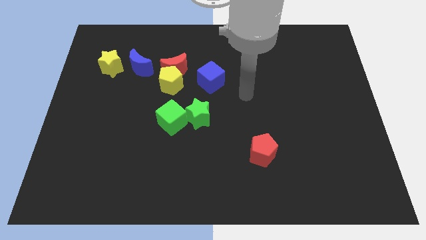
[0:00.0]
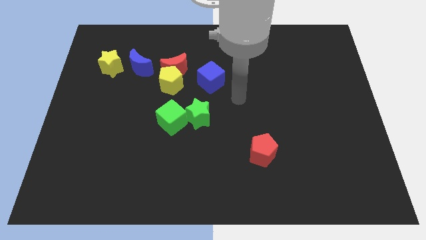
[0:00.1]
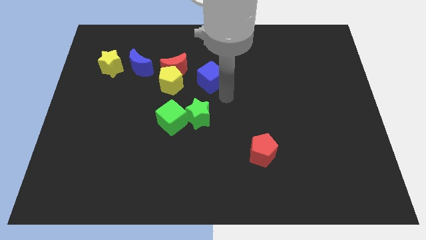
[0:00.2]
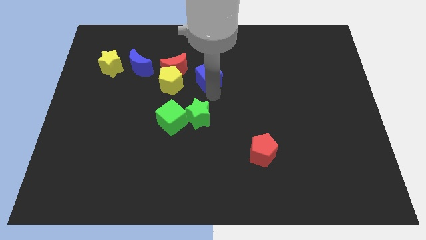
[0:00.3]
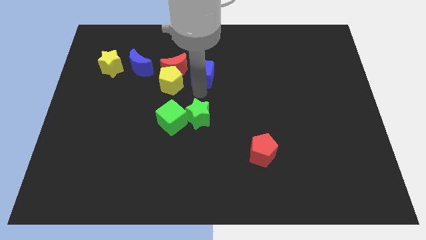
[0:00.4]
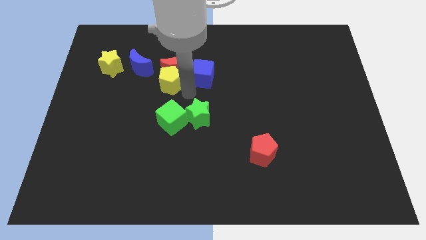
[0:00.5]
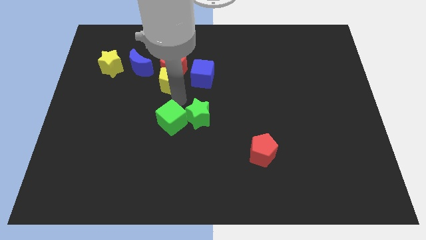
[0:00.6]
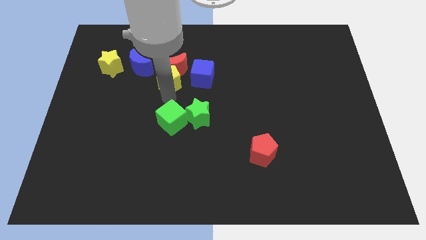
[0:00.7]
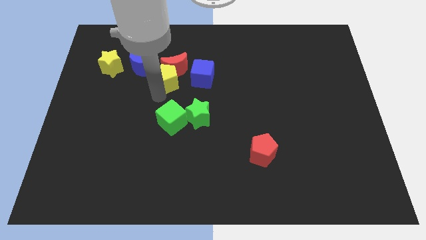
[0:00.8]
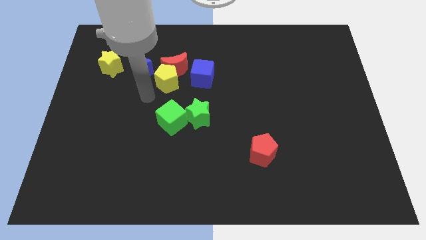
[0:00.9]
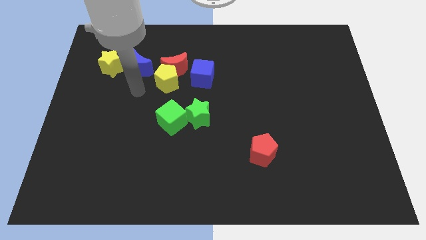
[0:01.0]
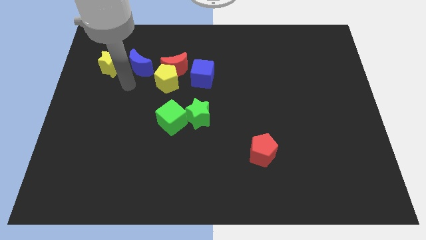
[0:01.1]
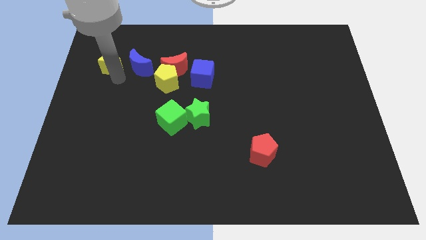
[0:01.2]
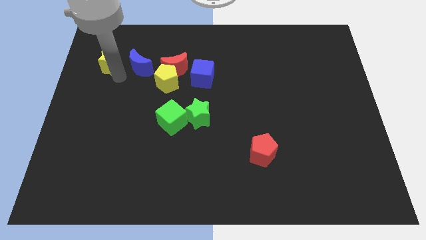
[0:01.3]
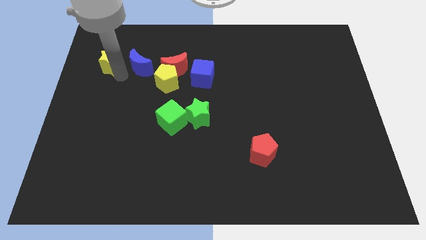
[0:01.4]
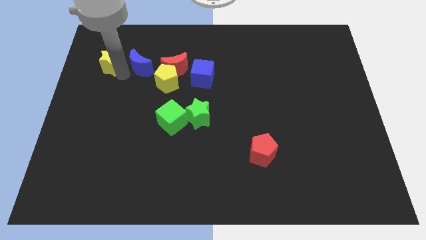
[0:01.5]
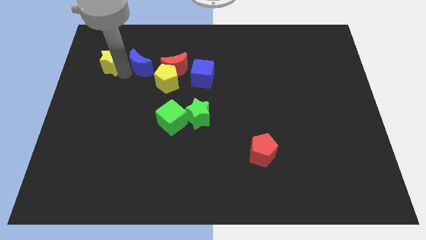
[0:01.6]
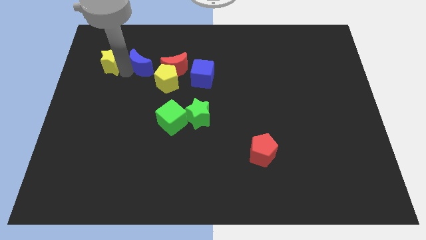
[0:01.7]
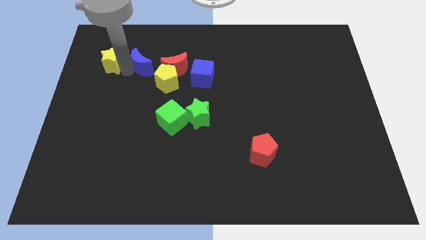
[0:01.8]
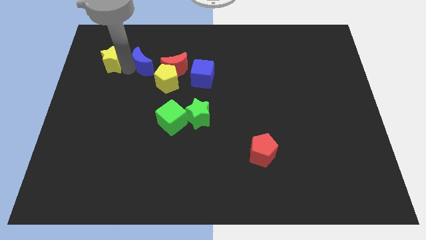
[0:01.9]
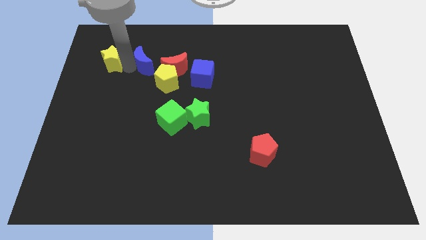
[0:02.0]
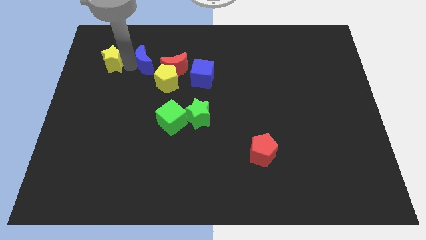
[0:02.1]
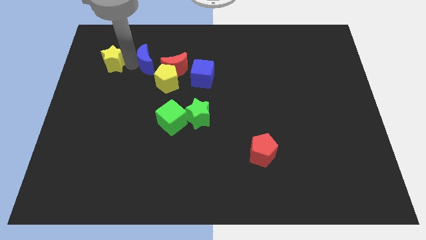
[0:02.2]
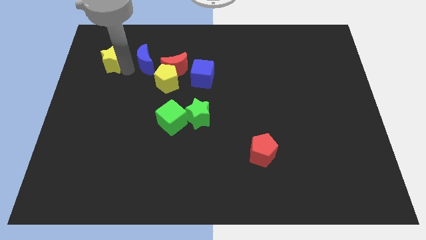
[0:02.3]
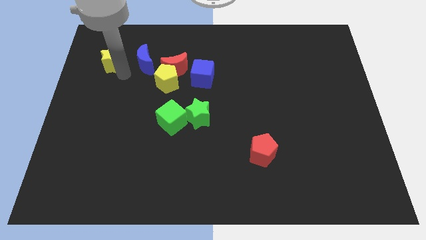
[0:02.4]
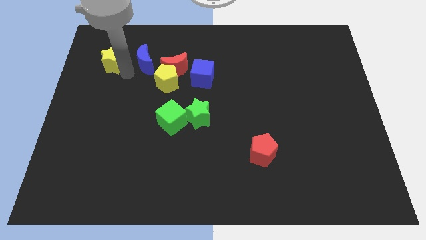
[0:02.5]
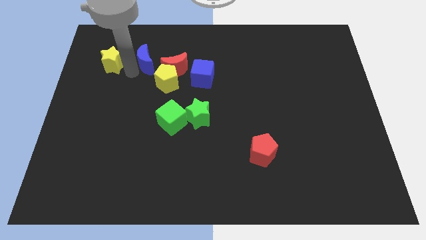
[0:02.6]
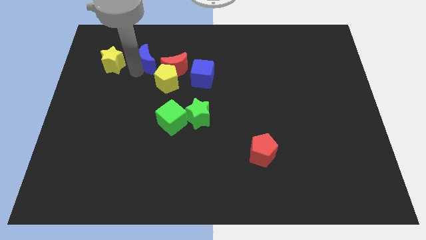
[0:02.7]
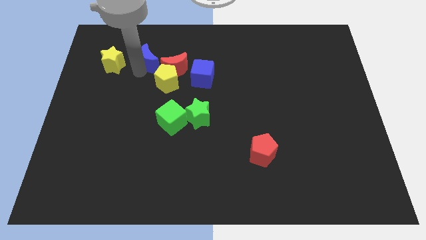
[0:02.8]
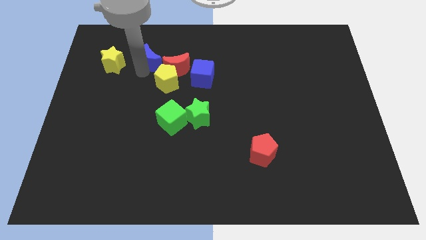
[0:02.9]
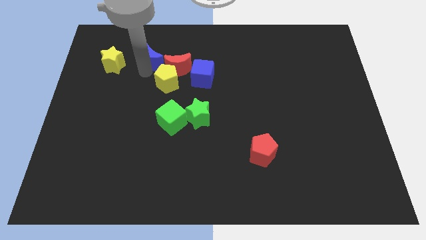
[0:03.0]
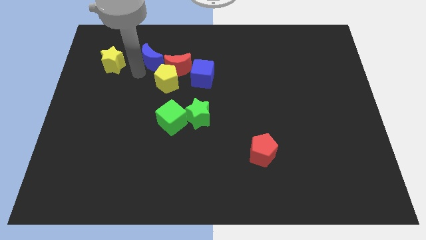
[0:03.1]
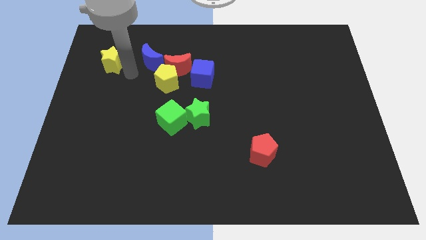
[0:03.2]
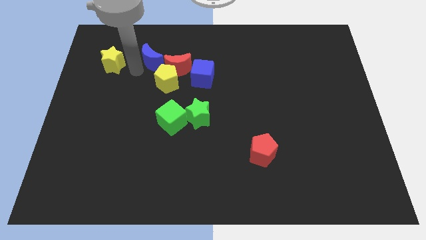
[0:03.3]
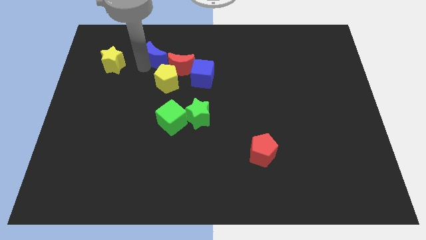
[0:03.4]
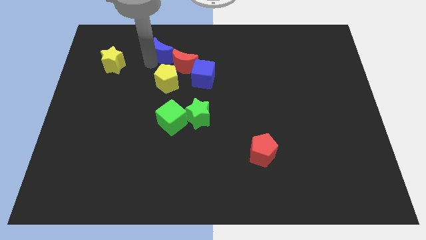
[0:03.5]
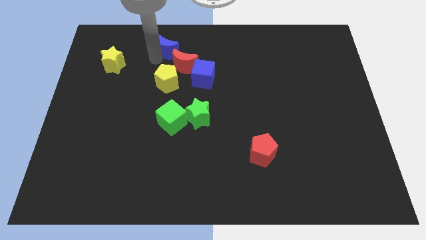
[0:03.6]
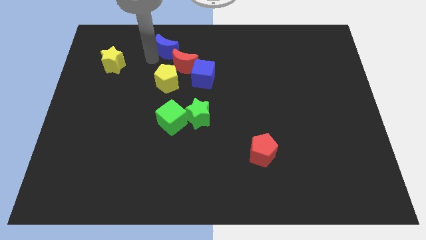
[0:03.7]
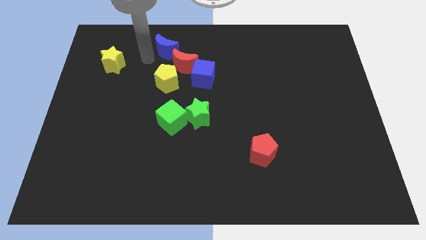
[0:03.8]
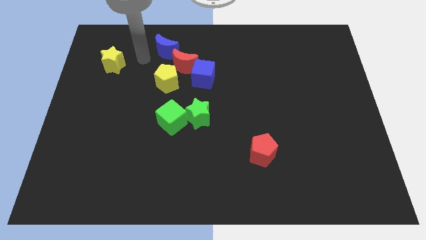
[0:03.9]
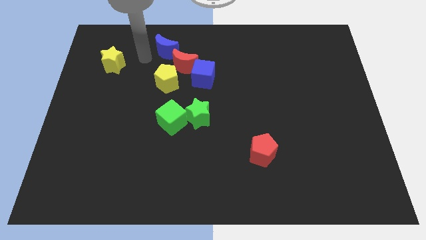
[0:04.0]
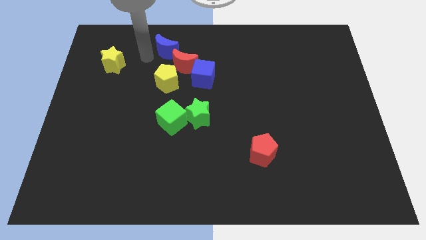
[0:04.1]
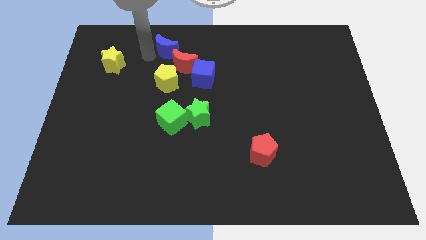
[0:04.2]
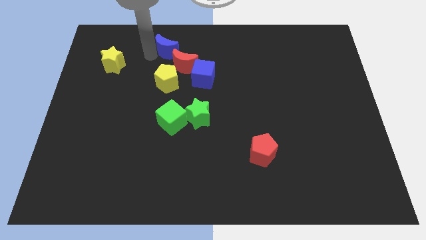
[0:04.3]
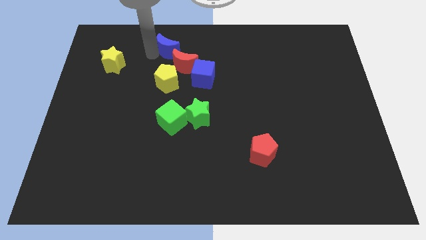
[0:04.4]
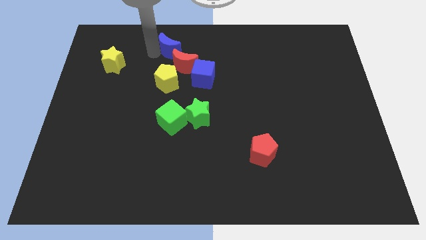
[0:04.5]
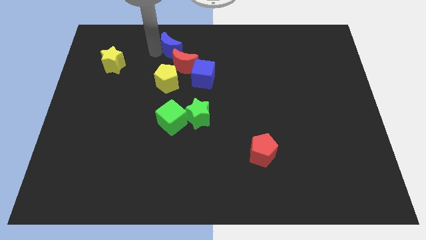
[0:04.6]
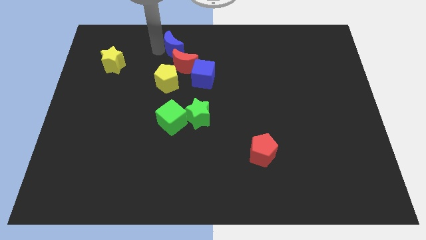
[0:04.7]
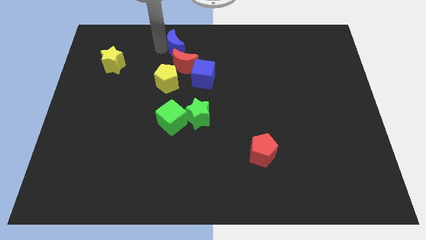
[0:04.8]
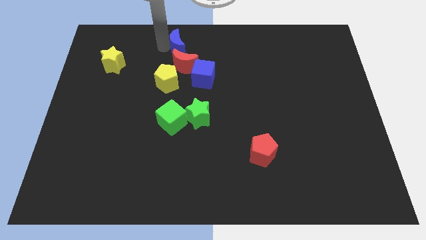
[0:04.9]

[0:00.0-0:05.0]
move the blue moon to the top

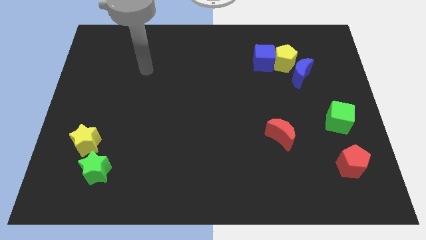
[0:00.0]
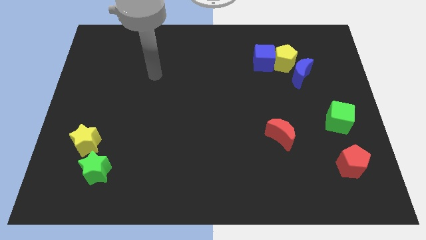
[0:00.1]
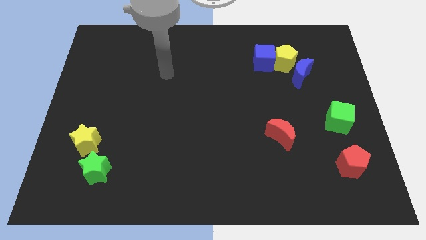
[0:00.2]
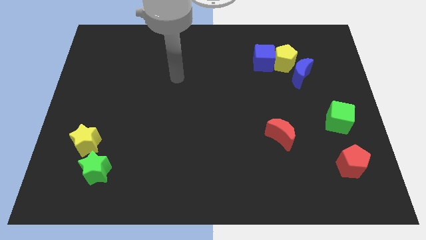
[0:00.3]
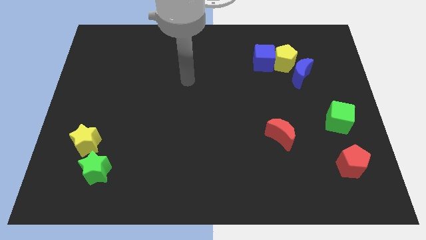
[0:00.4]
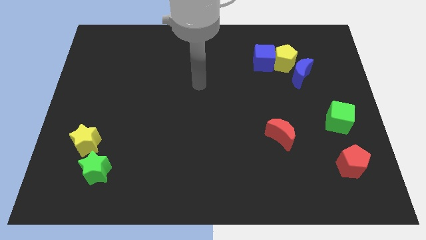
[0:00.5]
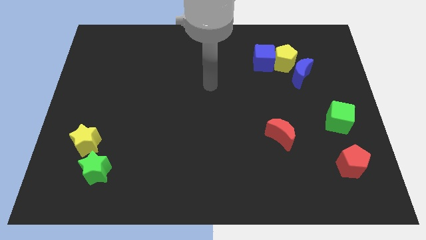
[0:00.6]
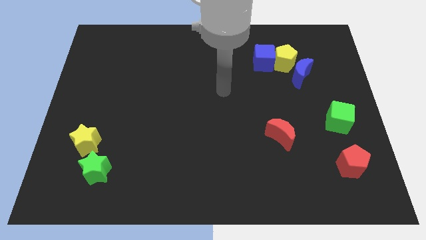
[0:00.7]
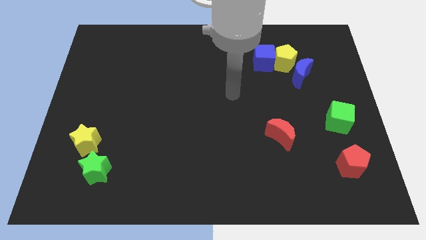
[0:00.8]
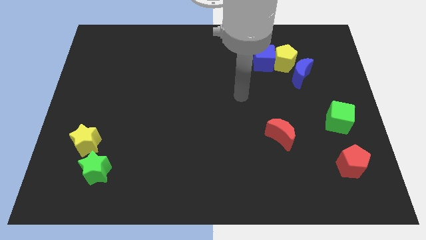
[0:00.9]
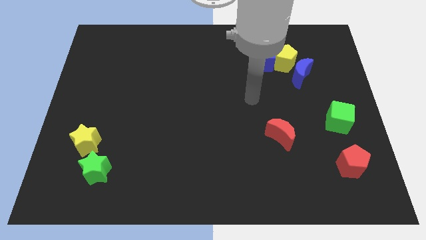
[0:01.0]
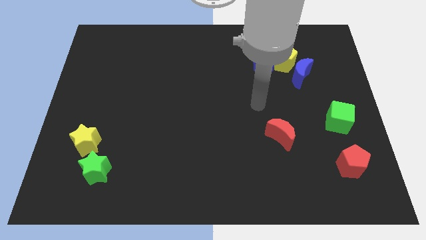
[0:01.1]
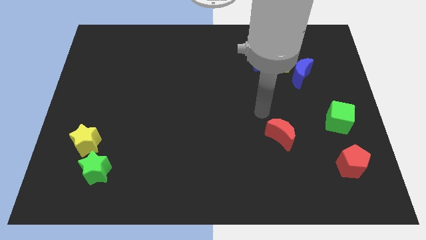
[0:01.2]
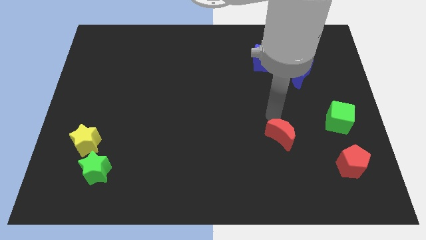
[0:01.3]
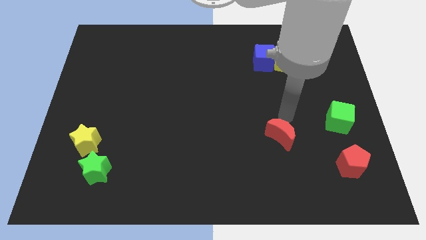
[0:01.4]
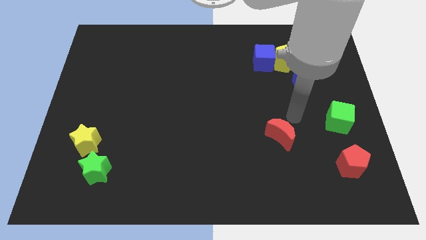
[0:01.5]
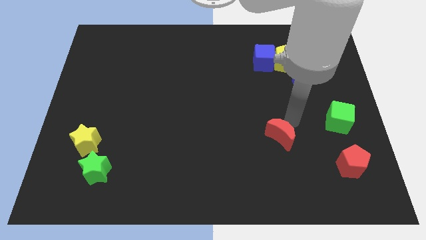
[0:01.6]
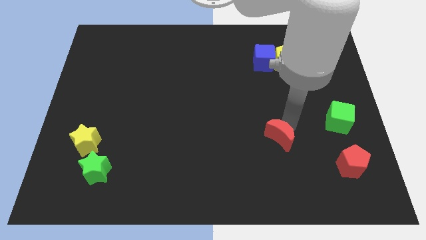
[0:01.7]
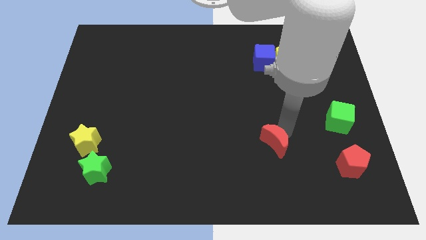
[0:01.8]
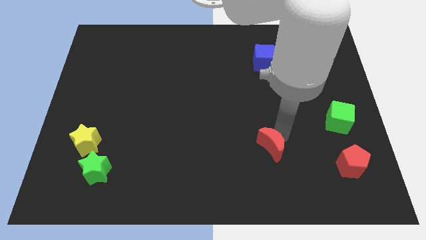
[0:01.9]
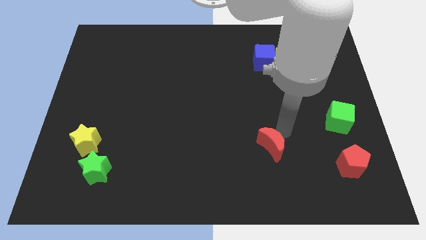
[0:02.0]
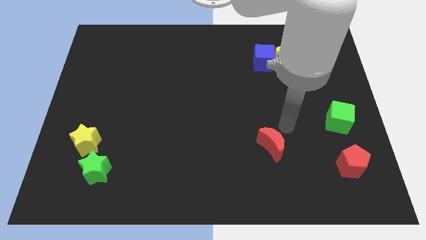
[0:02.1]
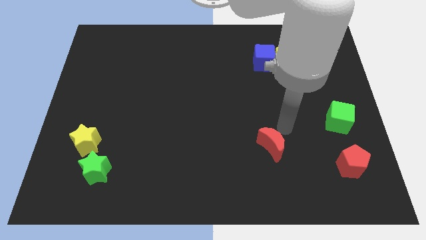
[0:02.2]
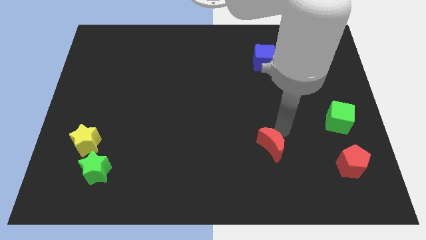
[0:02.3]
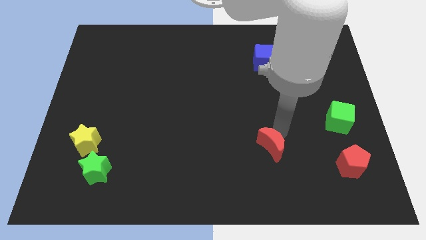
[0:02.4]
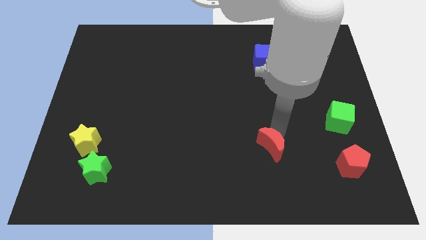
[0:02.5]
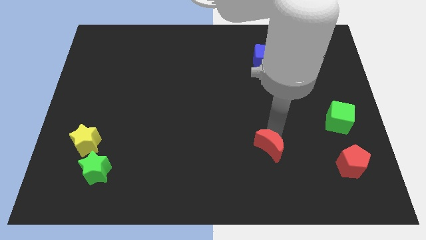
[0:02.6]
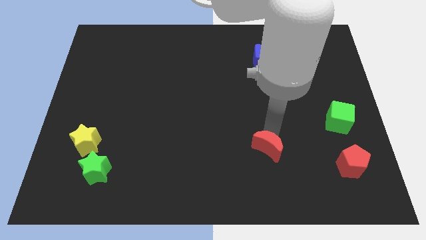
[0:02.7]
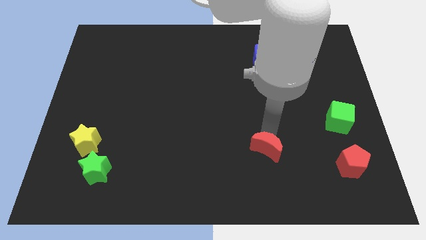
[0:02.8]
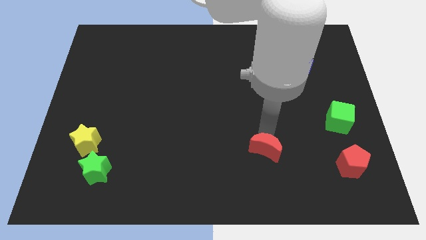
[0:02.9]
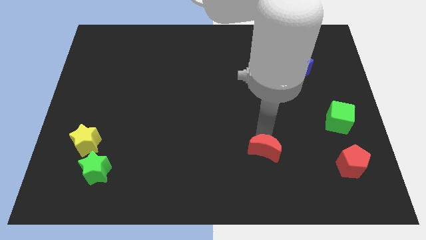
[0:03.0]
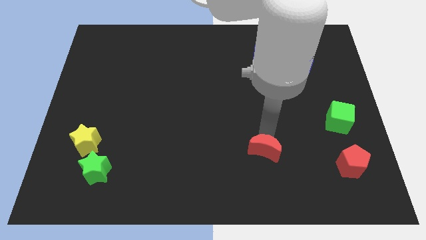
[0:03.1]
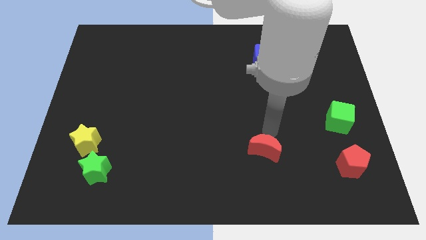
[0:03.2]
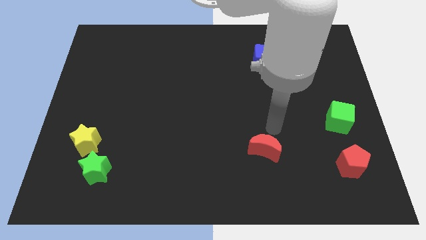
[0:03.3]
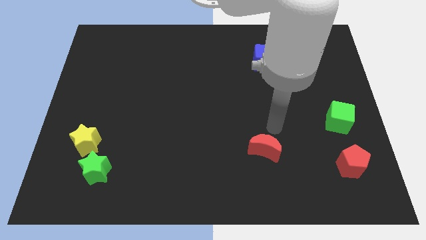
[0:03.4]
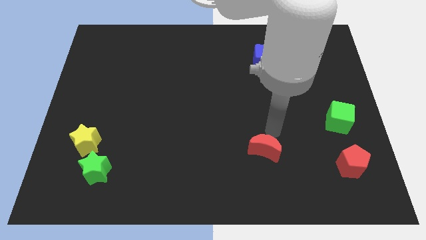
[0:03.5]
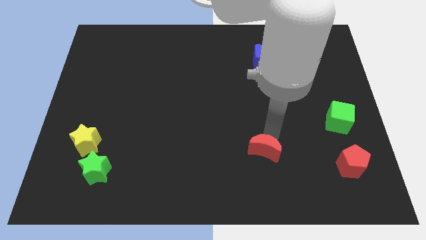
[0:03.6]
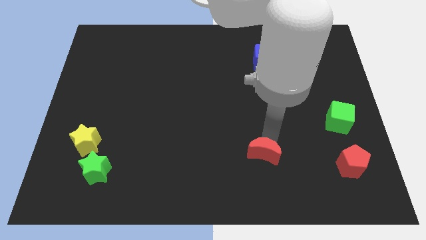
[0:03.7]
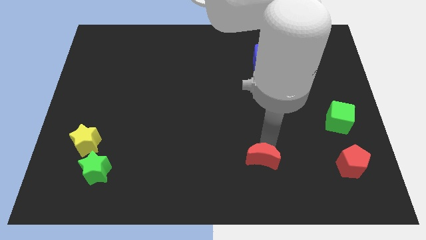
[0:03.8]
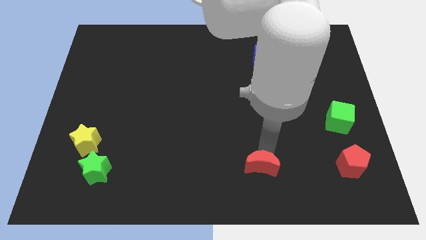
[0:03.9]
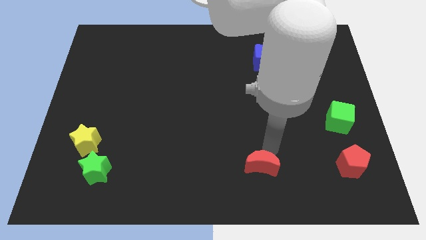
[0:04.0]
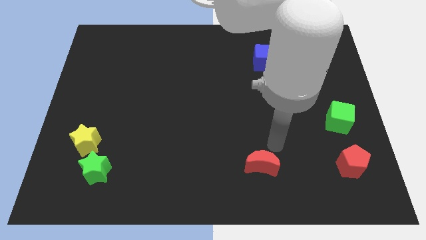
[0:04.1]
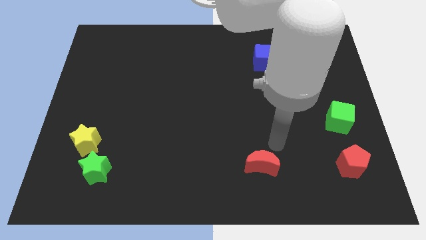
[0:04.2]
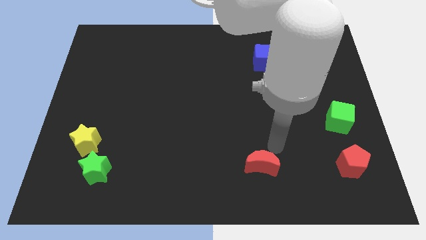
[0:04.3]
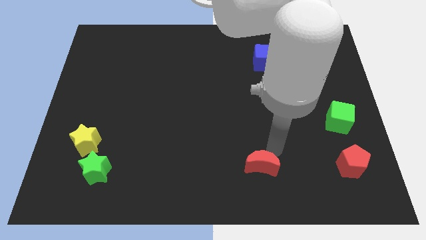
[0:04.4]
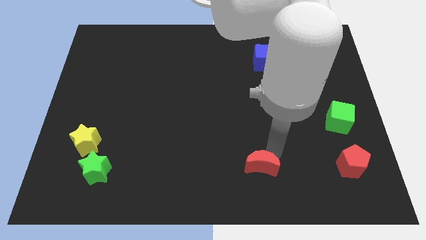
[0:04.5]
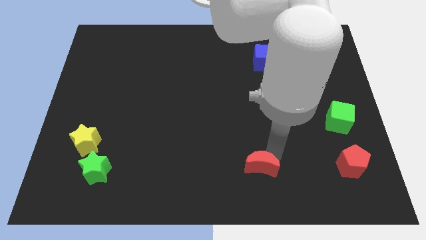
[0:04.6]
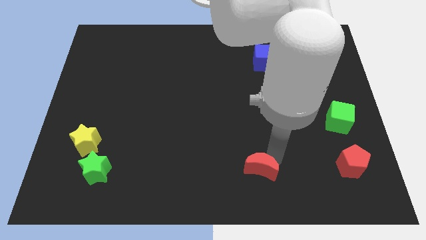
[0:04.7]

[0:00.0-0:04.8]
put the red moon to the bottom side
